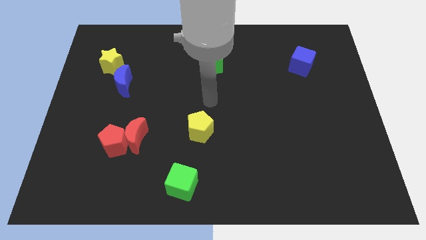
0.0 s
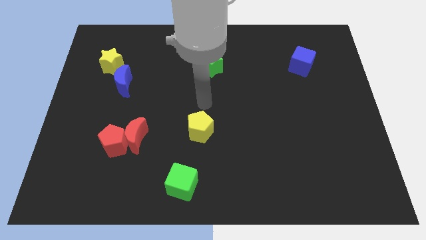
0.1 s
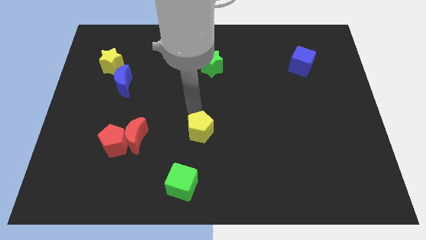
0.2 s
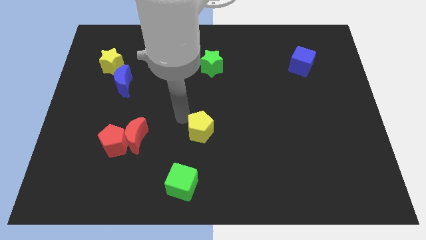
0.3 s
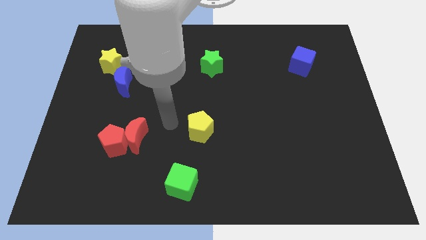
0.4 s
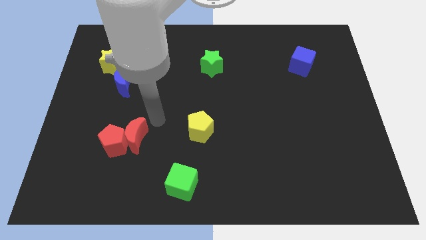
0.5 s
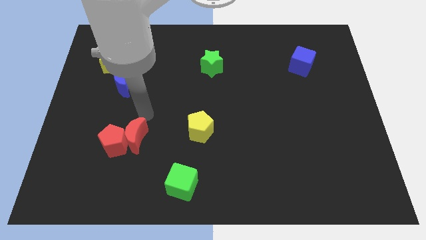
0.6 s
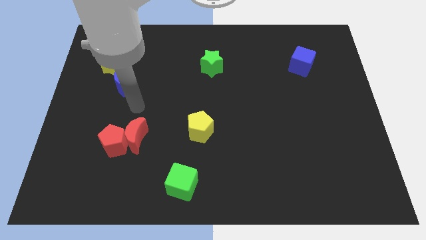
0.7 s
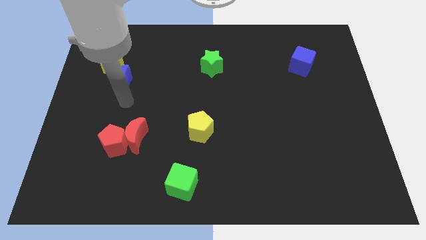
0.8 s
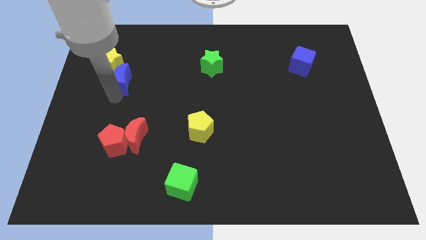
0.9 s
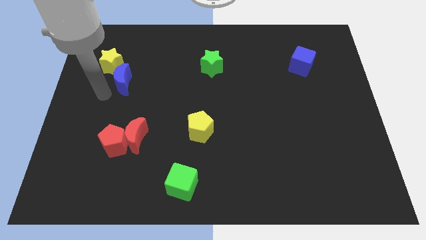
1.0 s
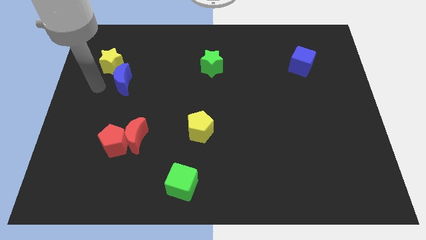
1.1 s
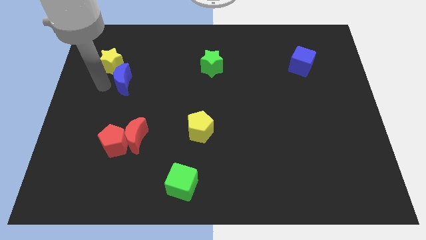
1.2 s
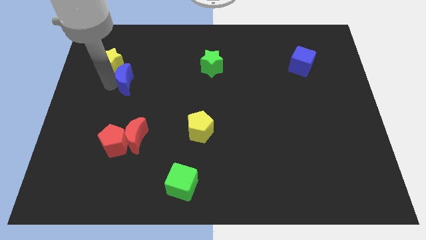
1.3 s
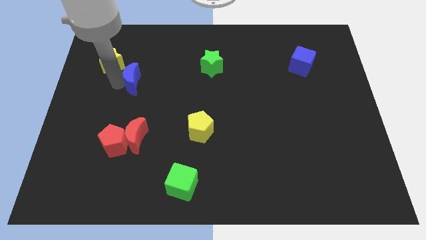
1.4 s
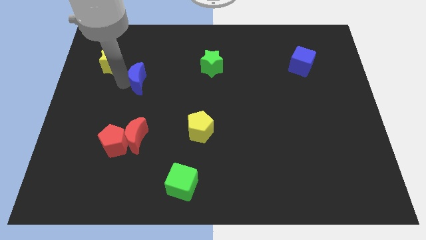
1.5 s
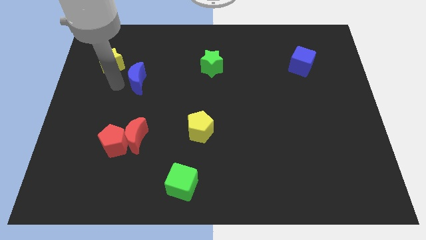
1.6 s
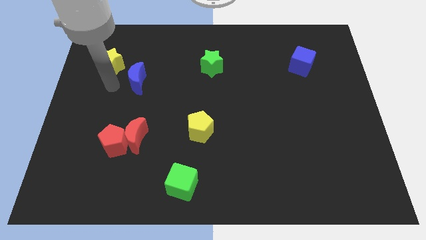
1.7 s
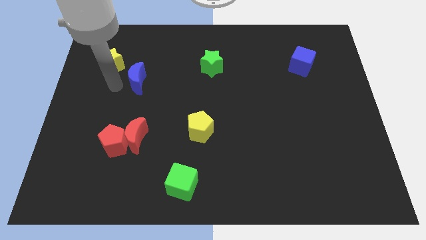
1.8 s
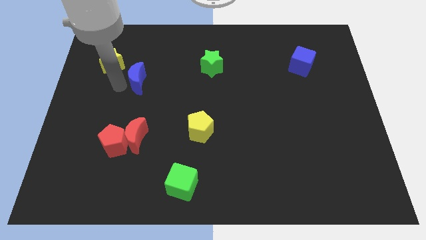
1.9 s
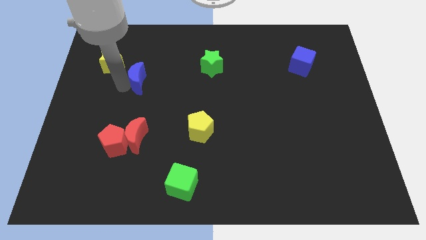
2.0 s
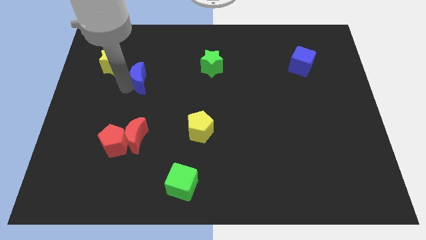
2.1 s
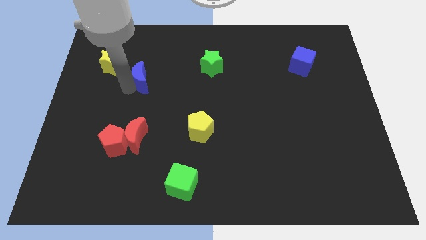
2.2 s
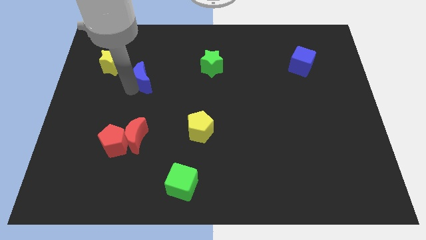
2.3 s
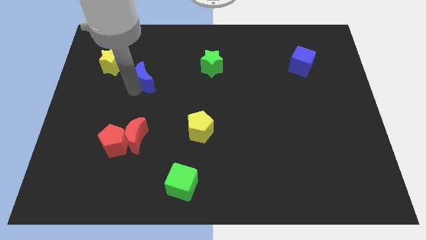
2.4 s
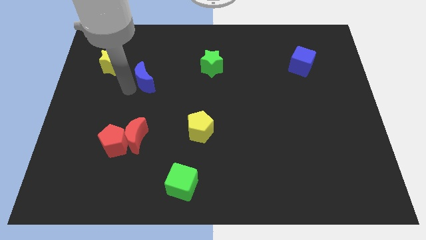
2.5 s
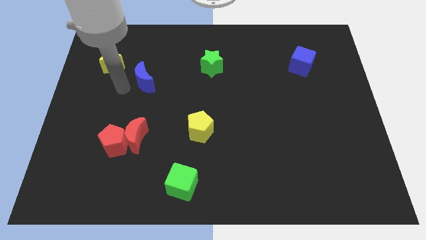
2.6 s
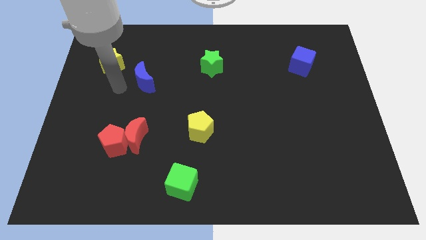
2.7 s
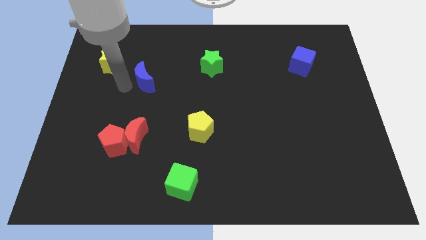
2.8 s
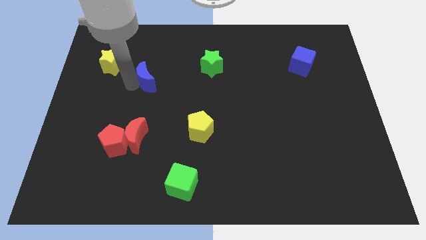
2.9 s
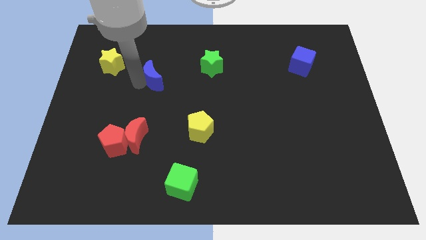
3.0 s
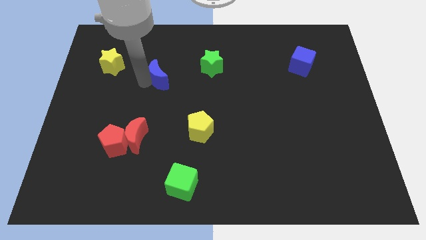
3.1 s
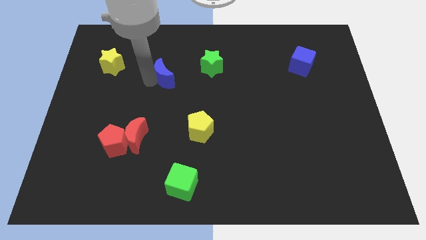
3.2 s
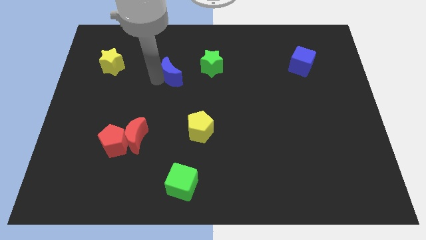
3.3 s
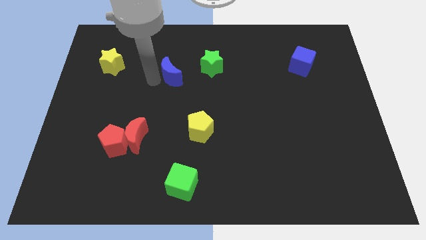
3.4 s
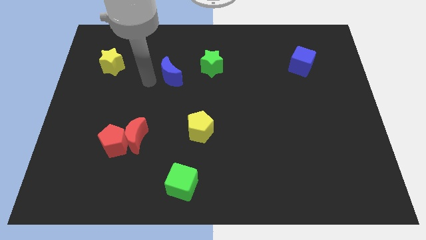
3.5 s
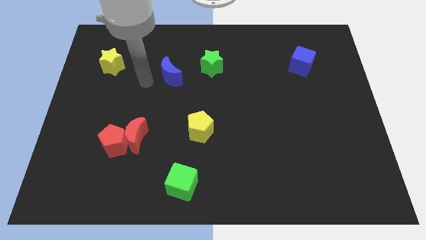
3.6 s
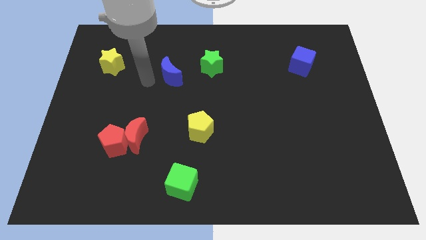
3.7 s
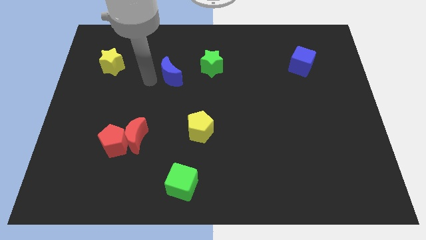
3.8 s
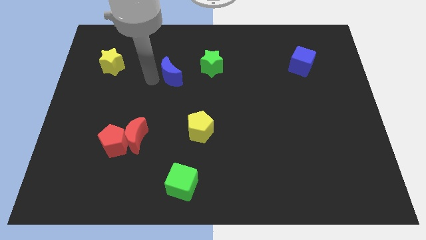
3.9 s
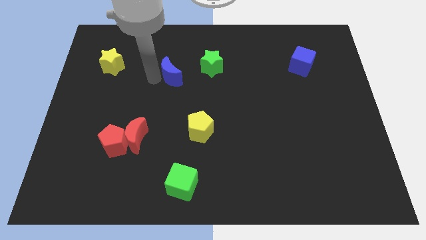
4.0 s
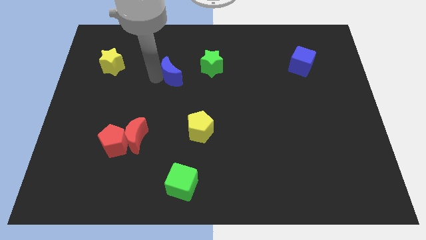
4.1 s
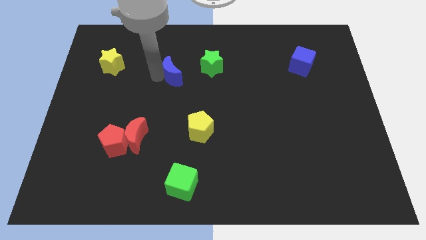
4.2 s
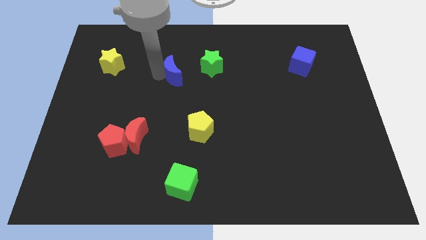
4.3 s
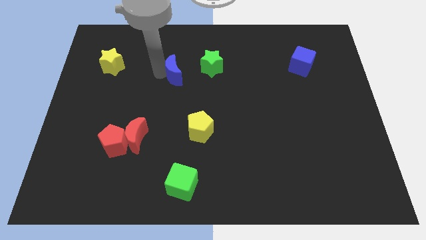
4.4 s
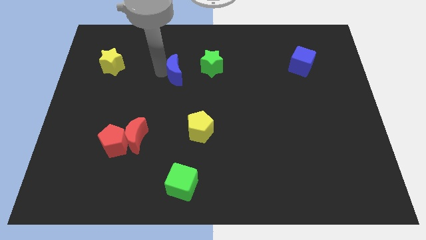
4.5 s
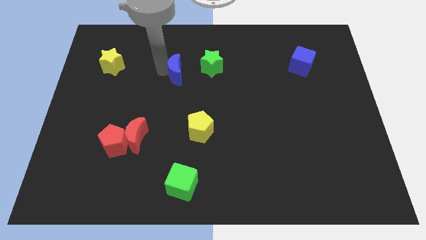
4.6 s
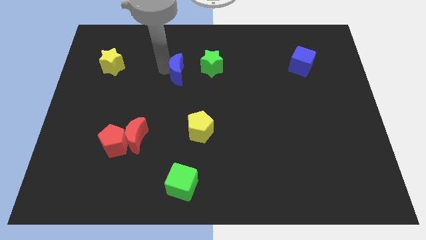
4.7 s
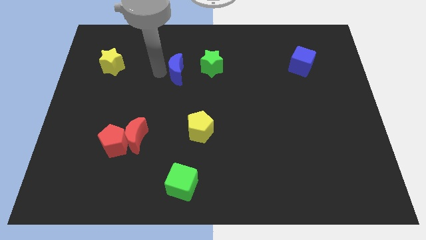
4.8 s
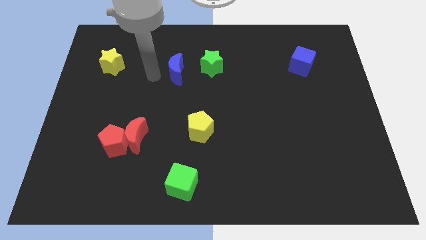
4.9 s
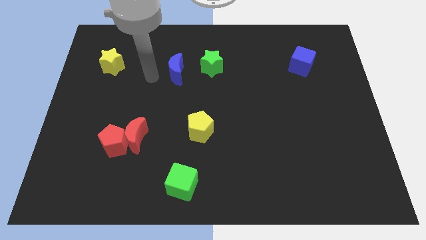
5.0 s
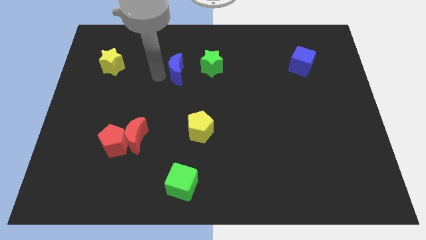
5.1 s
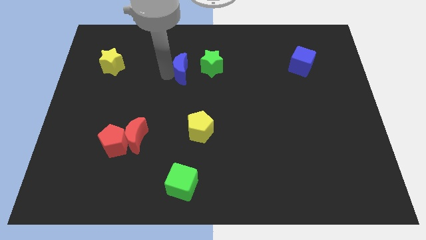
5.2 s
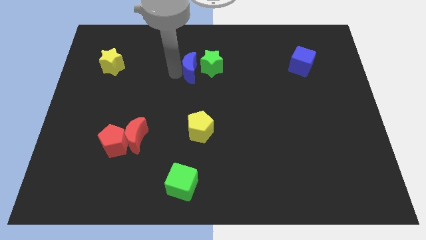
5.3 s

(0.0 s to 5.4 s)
slide the blue moon next to the green star

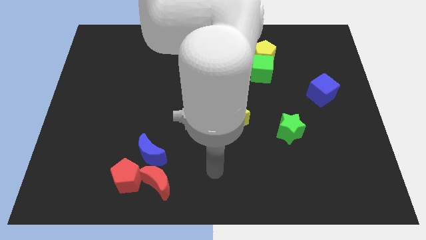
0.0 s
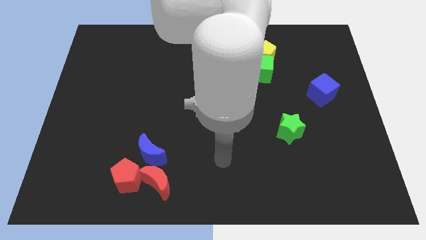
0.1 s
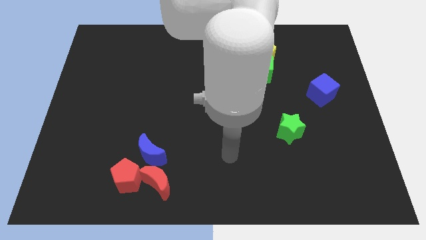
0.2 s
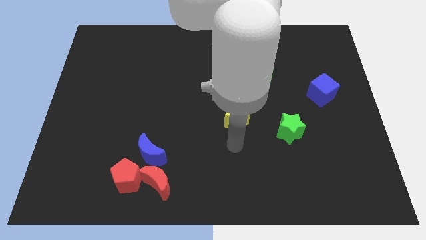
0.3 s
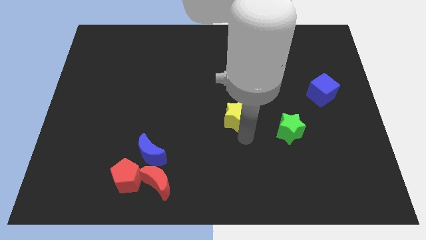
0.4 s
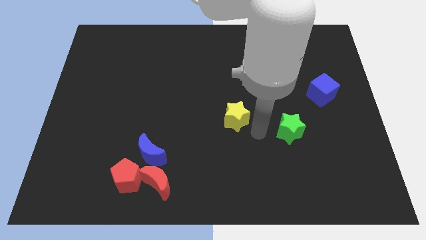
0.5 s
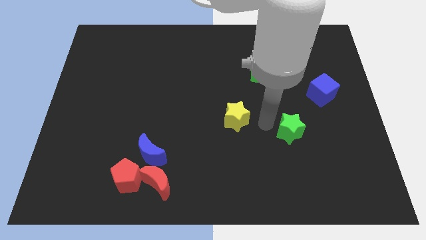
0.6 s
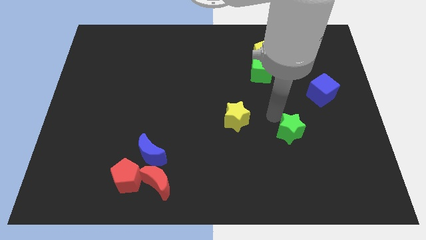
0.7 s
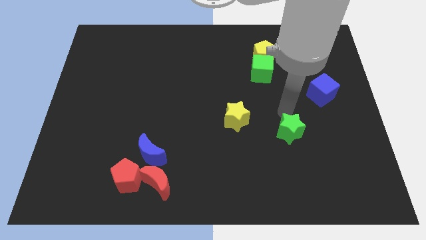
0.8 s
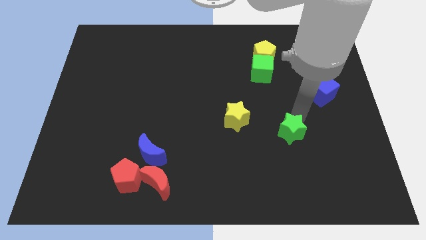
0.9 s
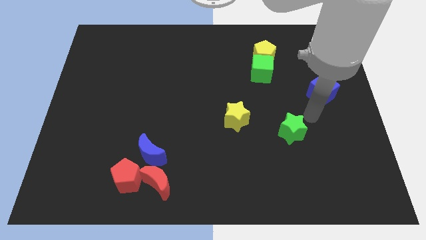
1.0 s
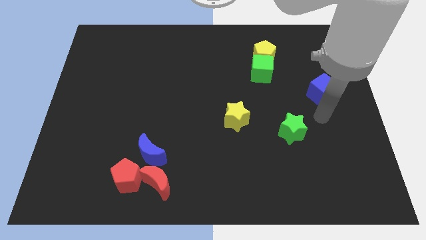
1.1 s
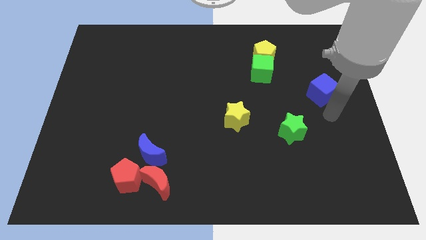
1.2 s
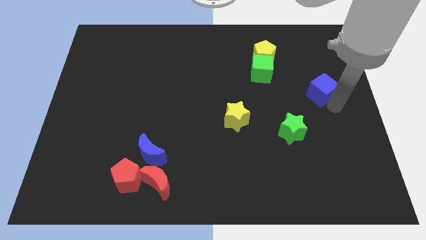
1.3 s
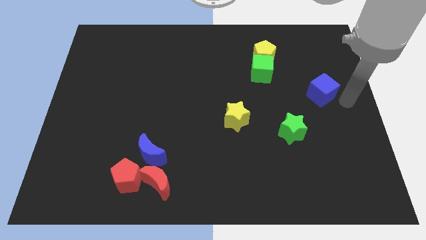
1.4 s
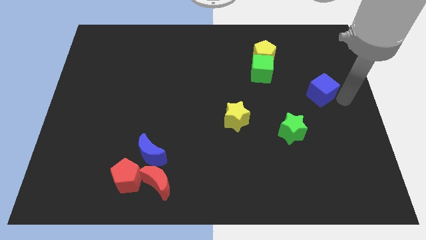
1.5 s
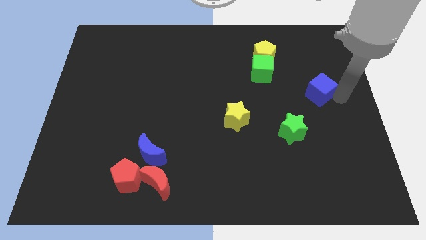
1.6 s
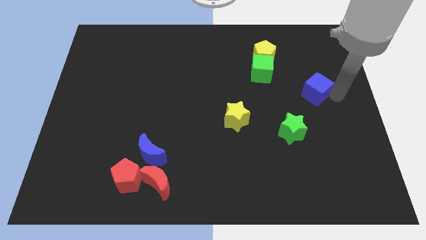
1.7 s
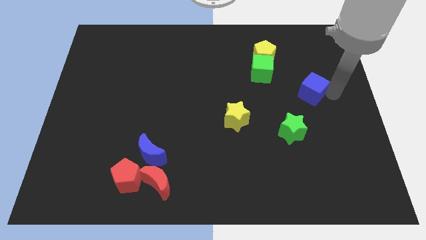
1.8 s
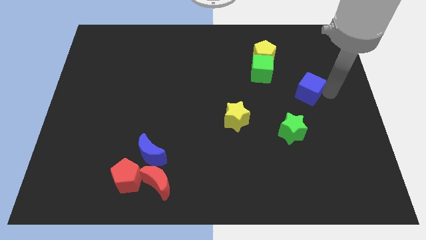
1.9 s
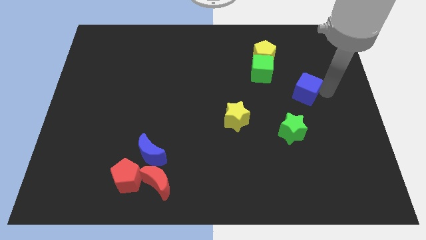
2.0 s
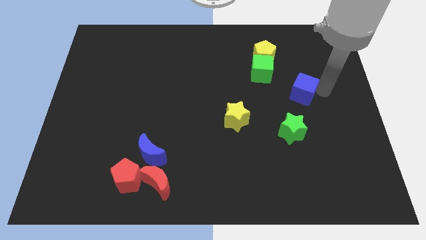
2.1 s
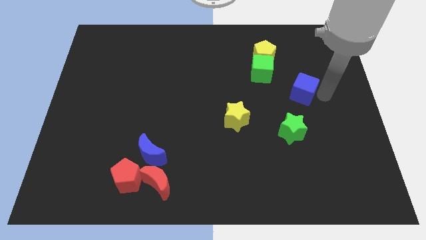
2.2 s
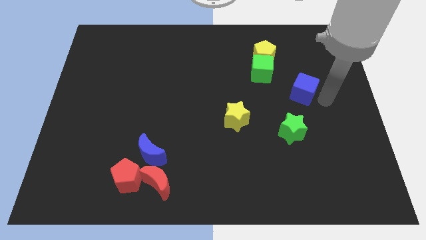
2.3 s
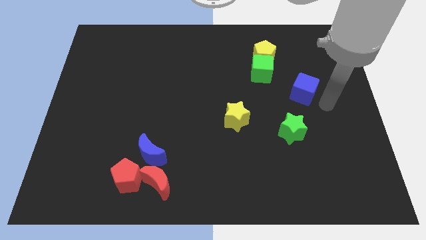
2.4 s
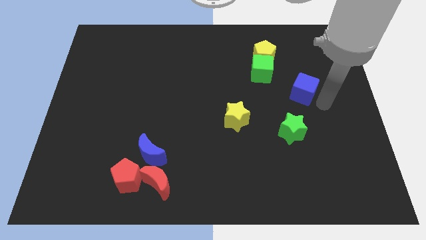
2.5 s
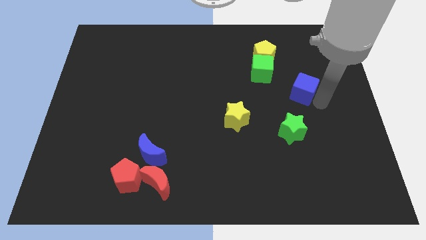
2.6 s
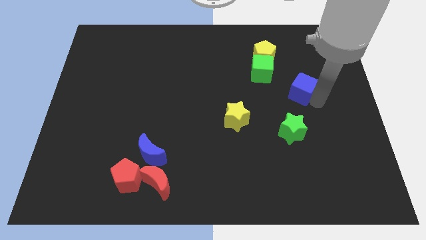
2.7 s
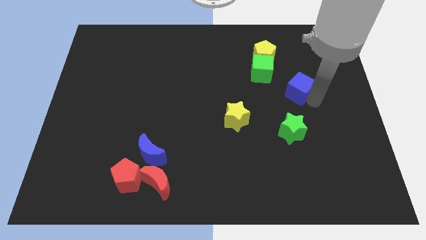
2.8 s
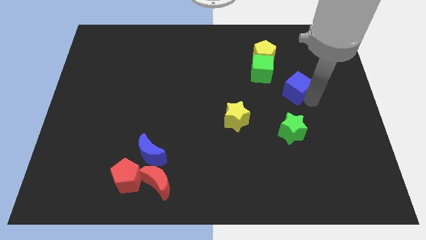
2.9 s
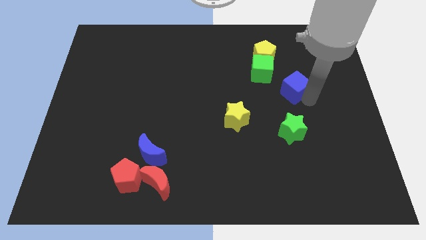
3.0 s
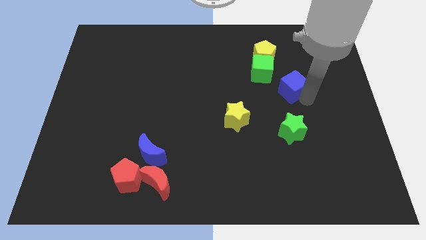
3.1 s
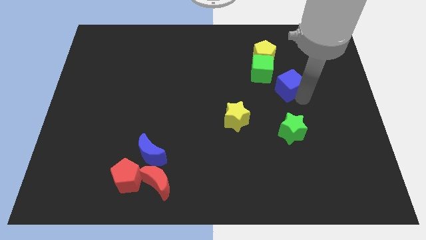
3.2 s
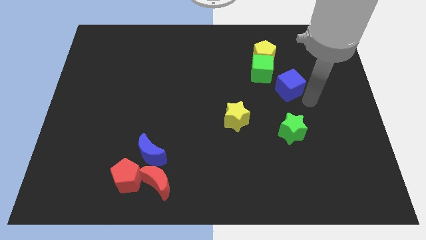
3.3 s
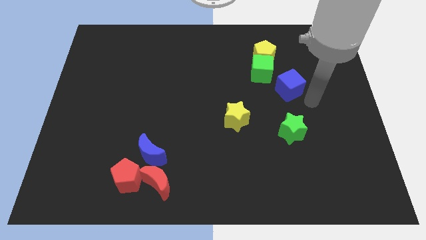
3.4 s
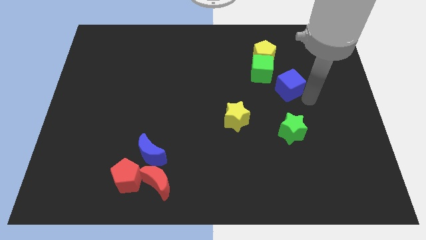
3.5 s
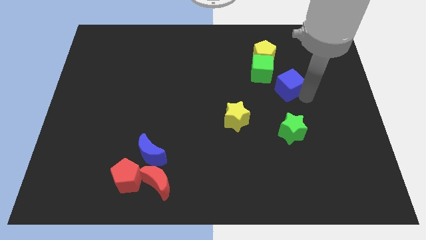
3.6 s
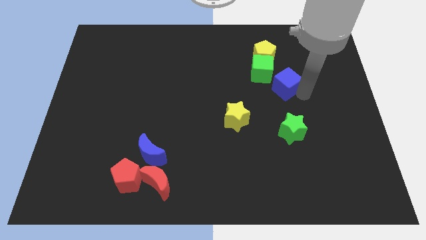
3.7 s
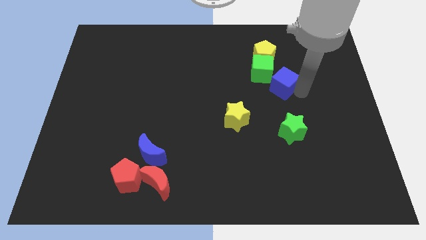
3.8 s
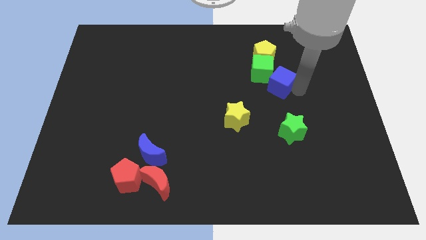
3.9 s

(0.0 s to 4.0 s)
push the blue cube close to the green cube
